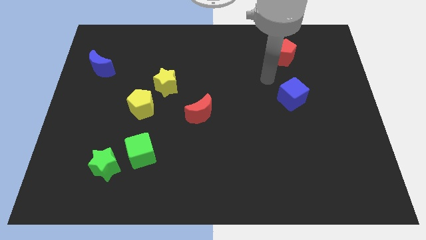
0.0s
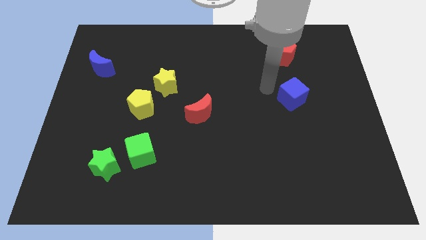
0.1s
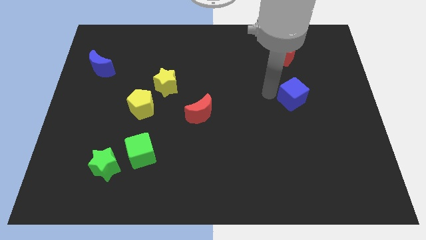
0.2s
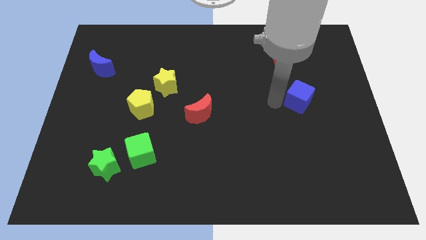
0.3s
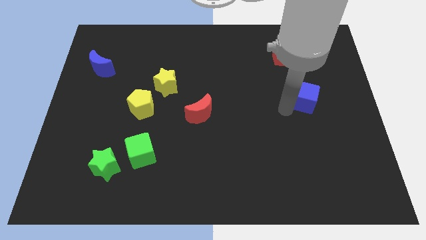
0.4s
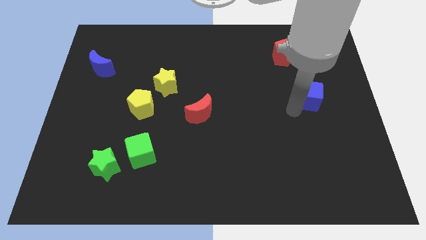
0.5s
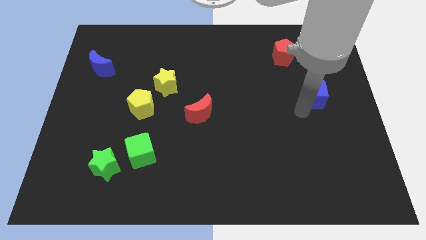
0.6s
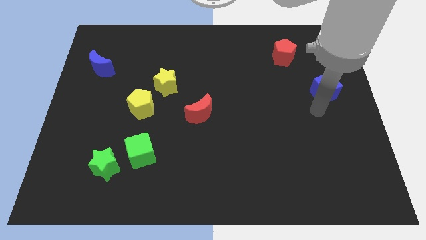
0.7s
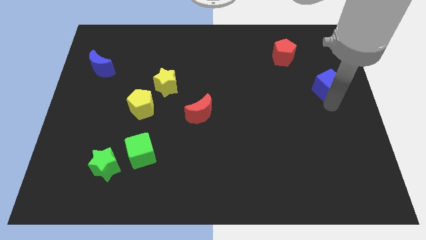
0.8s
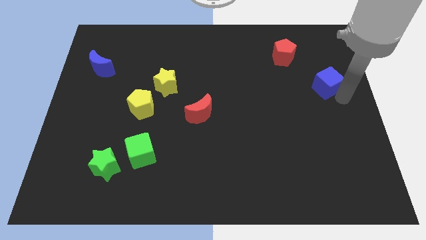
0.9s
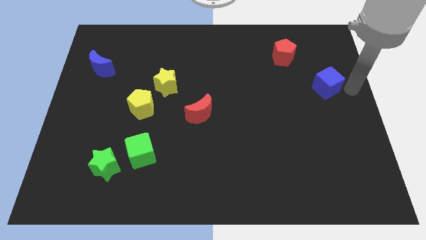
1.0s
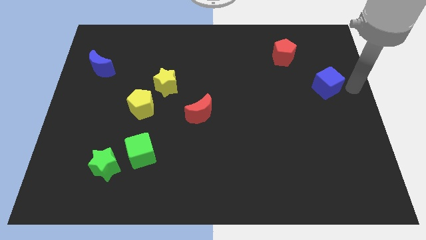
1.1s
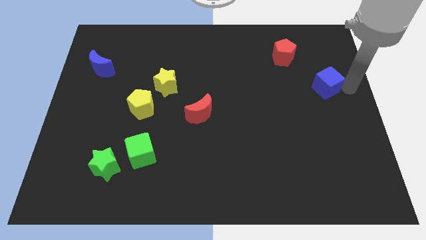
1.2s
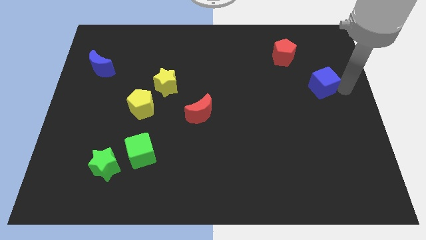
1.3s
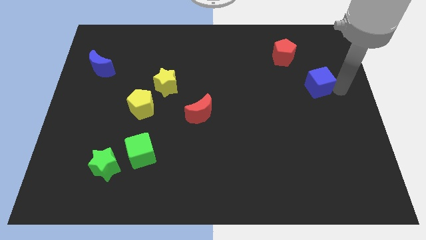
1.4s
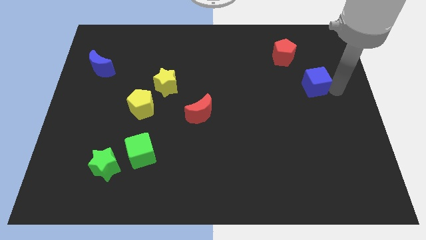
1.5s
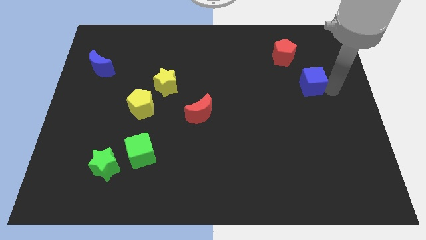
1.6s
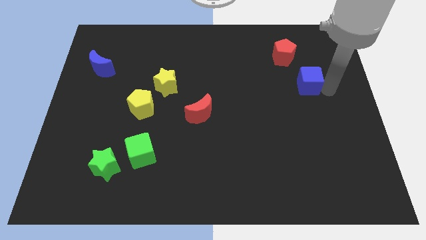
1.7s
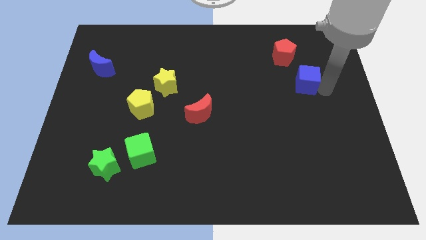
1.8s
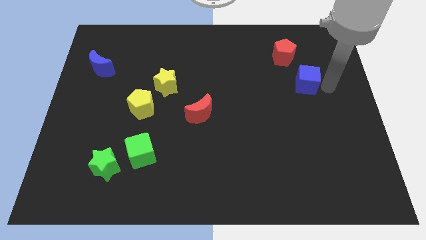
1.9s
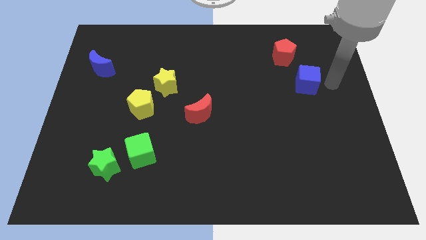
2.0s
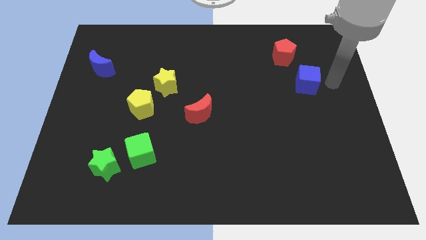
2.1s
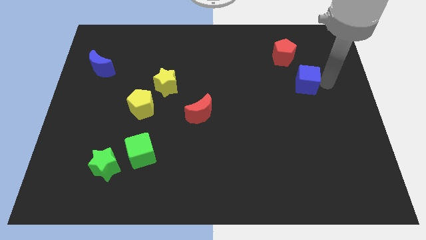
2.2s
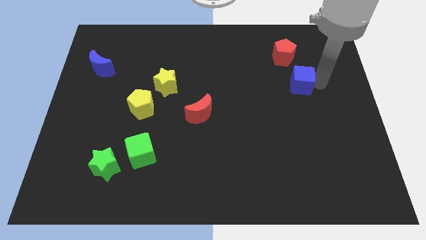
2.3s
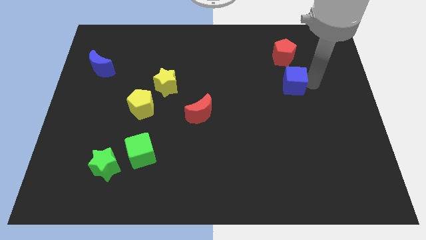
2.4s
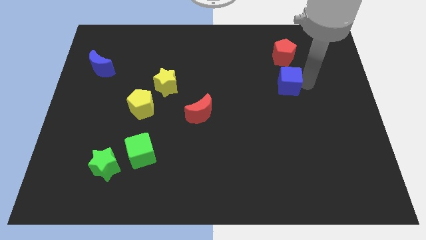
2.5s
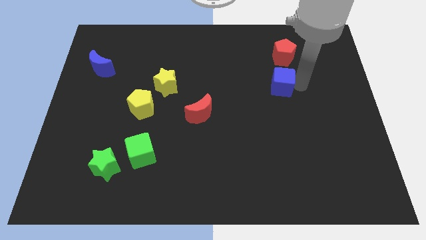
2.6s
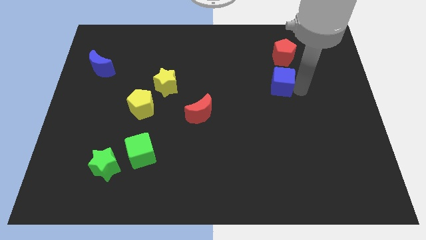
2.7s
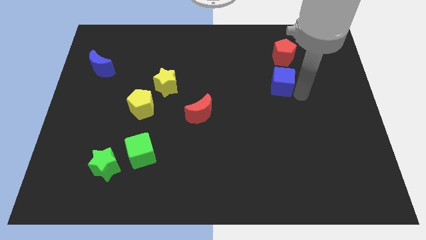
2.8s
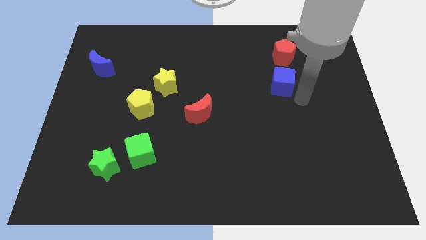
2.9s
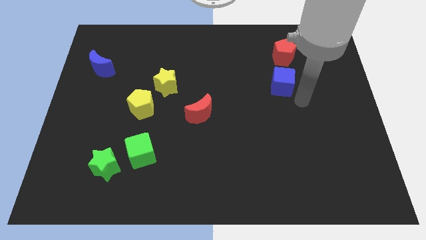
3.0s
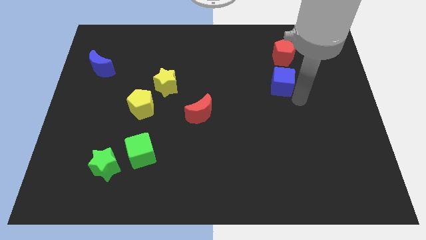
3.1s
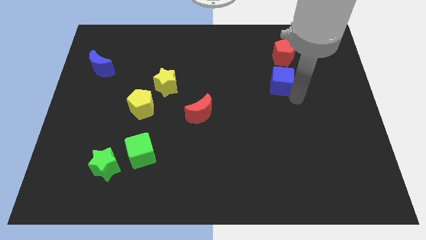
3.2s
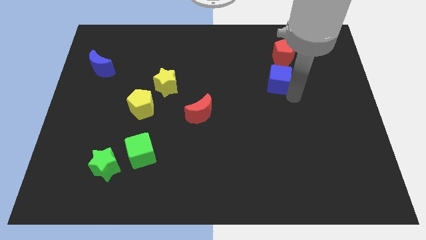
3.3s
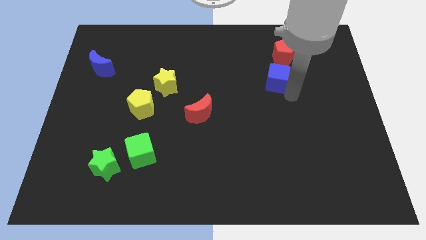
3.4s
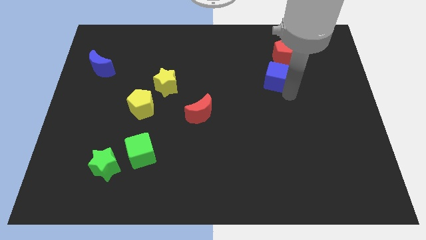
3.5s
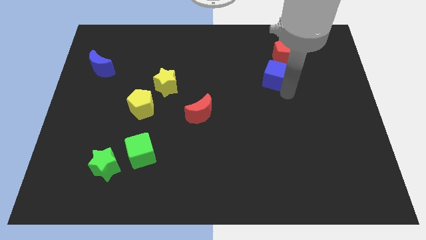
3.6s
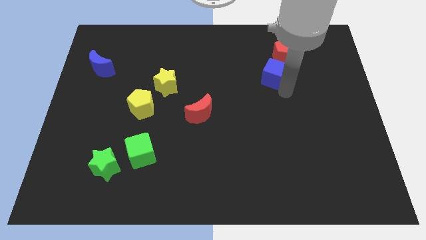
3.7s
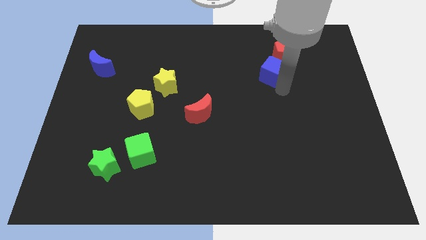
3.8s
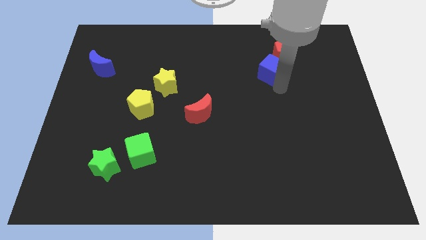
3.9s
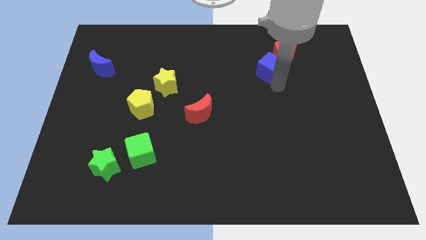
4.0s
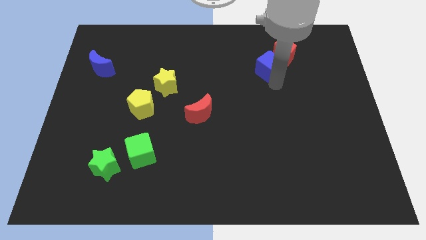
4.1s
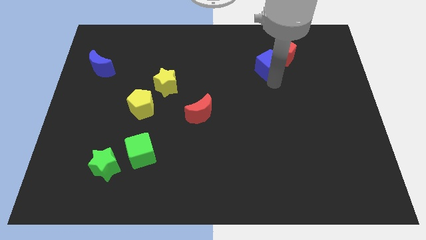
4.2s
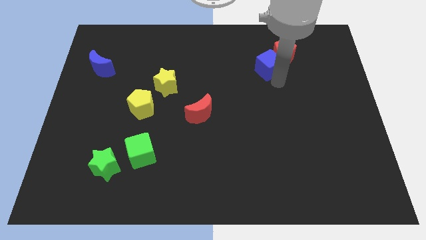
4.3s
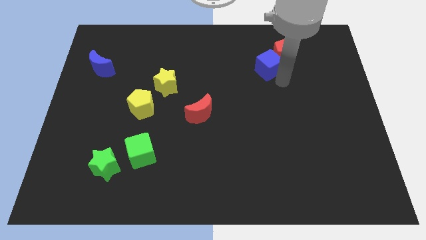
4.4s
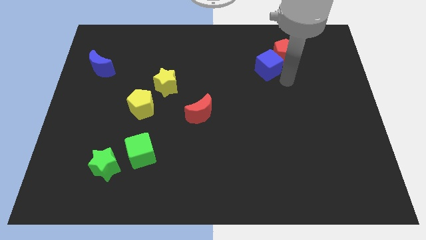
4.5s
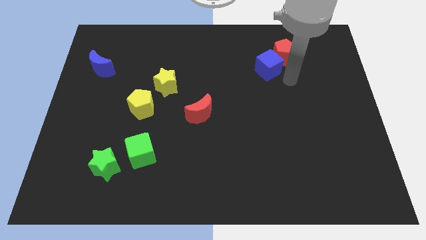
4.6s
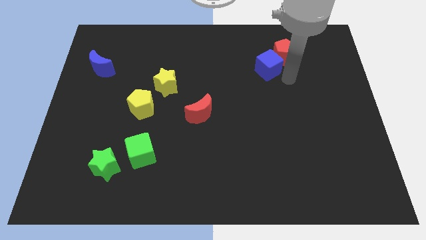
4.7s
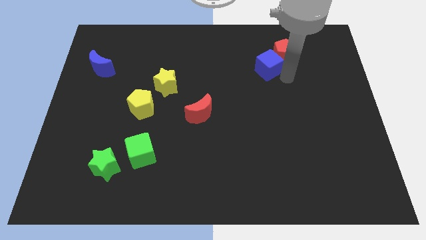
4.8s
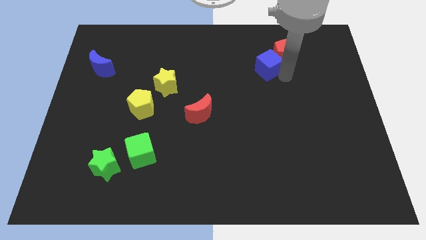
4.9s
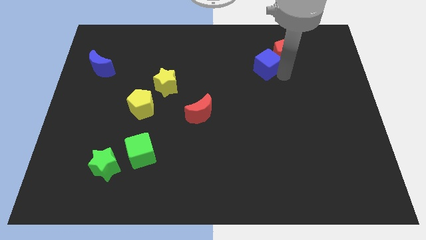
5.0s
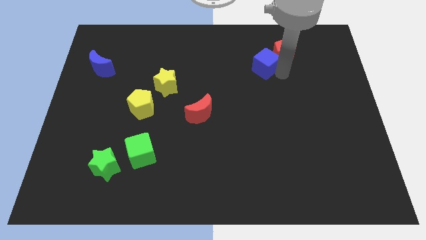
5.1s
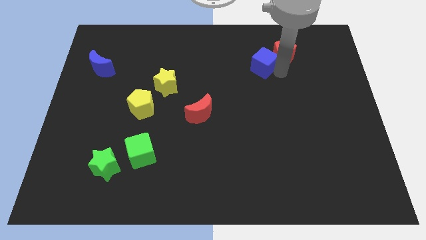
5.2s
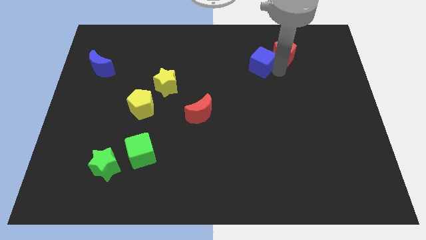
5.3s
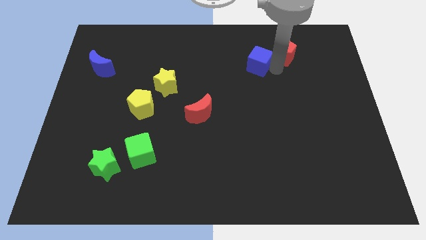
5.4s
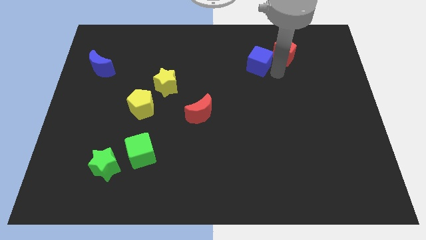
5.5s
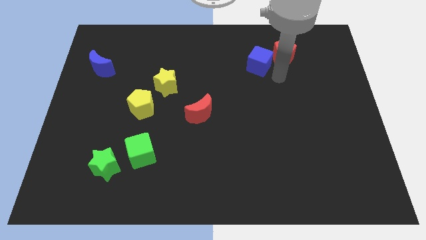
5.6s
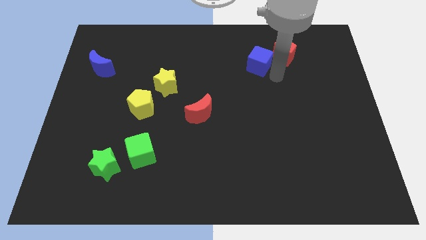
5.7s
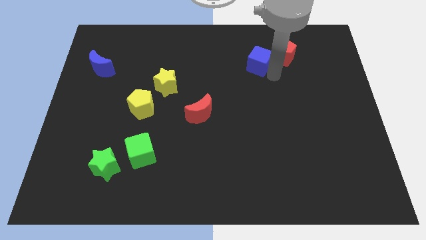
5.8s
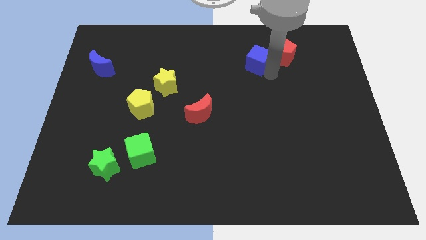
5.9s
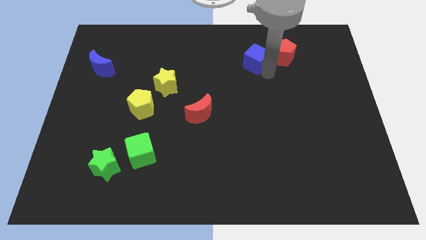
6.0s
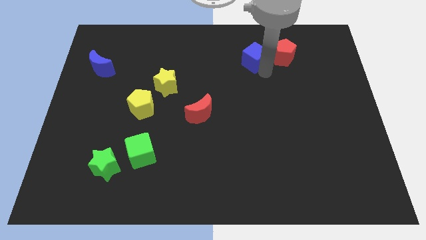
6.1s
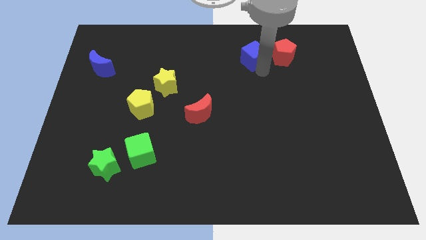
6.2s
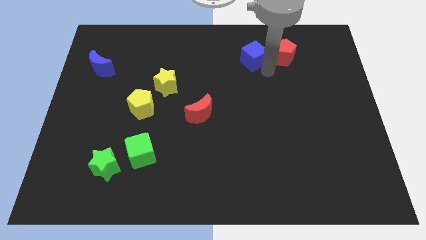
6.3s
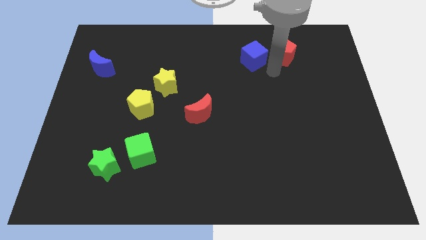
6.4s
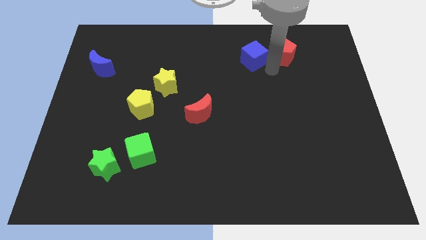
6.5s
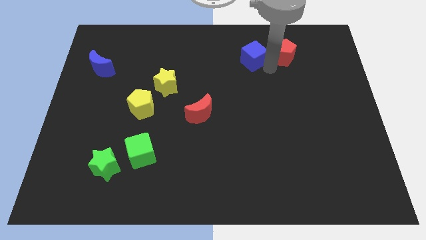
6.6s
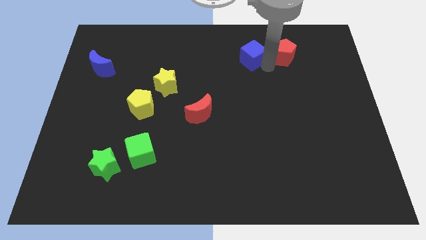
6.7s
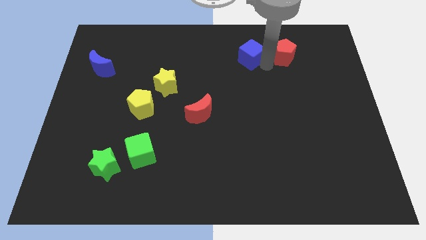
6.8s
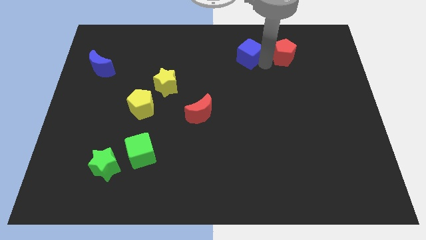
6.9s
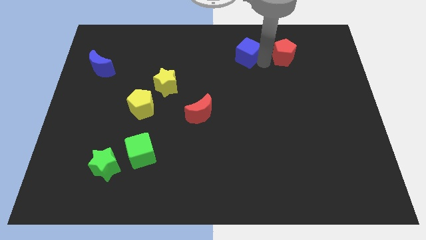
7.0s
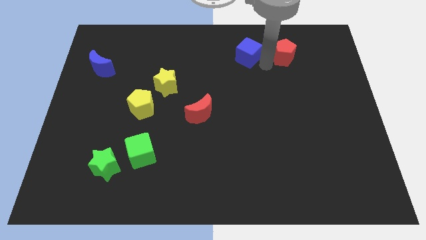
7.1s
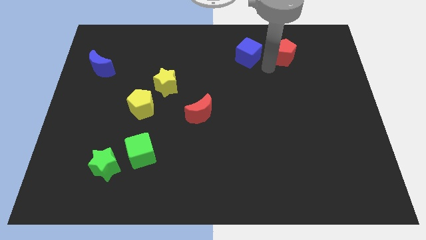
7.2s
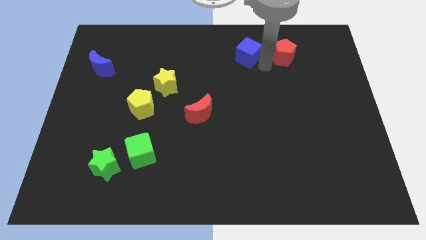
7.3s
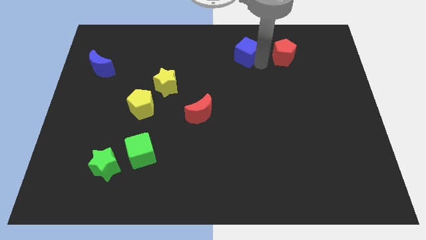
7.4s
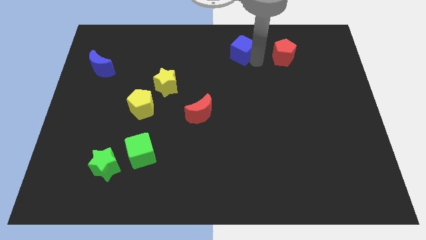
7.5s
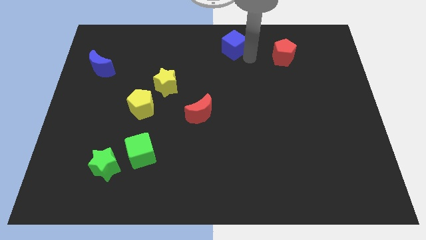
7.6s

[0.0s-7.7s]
move the blue cube to the towards your base
